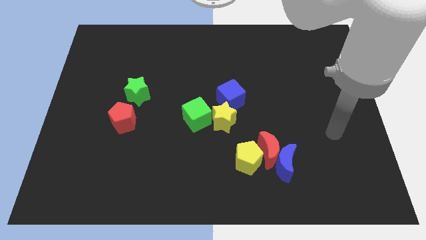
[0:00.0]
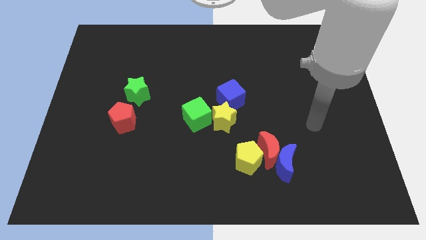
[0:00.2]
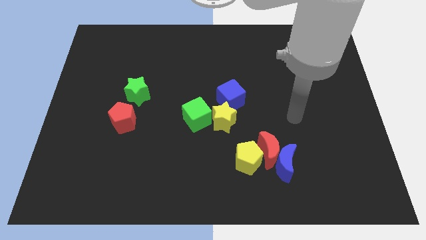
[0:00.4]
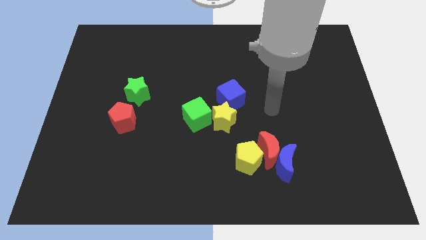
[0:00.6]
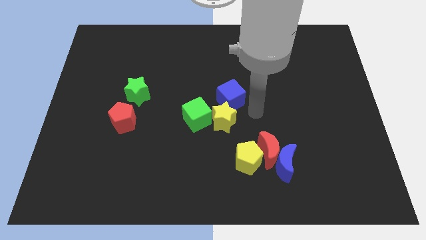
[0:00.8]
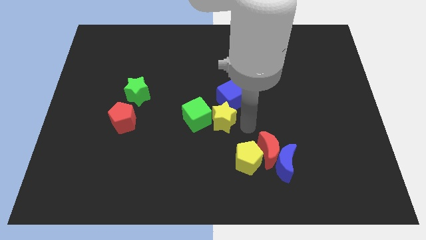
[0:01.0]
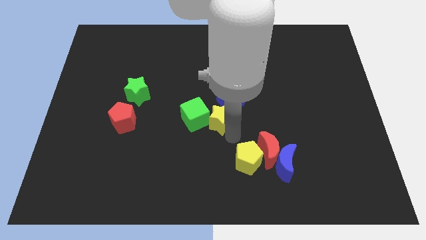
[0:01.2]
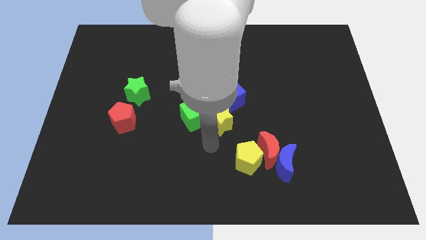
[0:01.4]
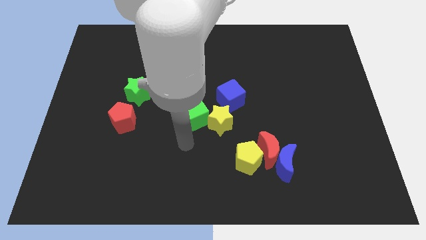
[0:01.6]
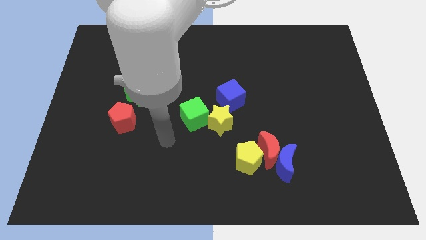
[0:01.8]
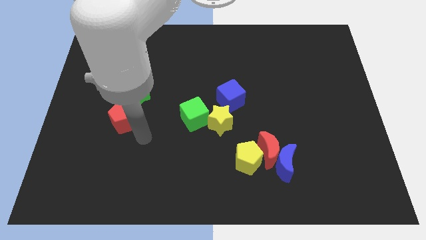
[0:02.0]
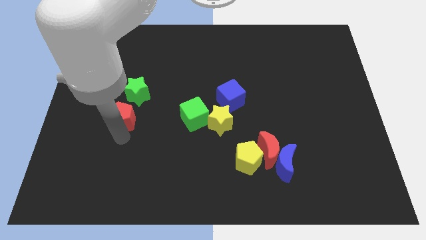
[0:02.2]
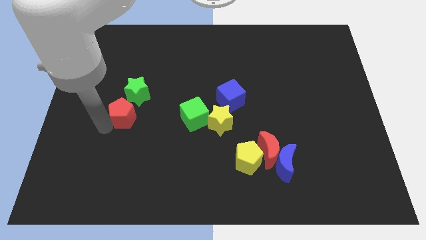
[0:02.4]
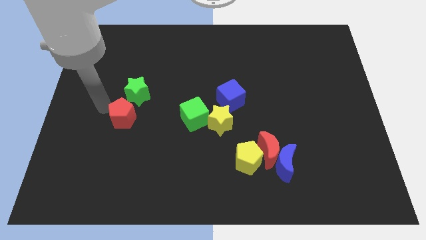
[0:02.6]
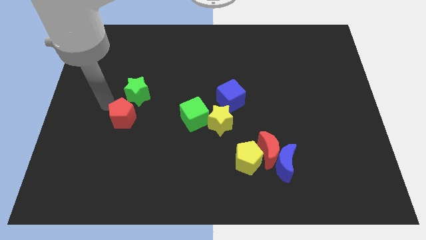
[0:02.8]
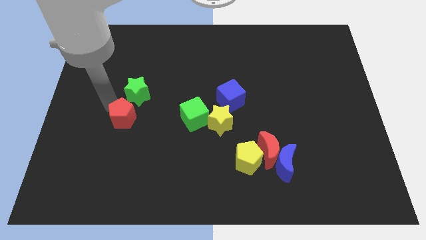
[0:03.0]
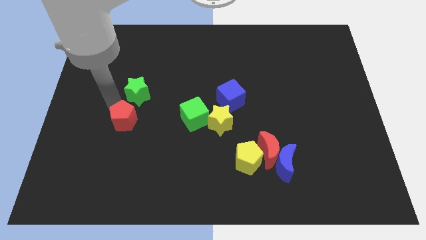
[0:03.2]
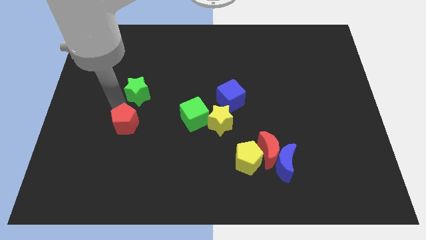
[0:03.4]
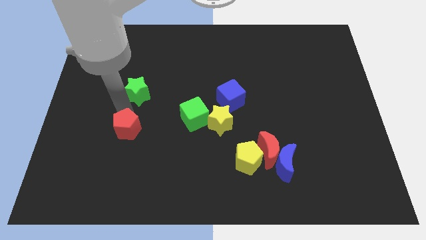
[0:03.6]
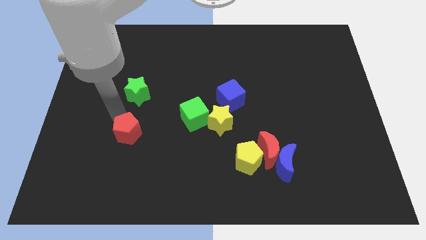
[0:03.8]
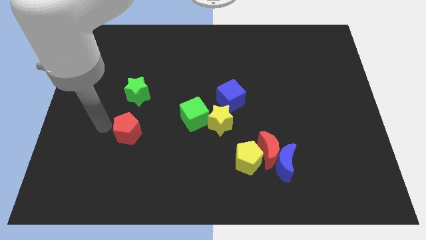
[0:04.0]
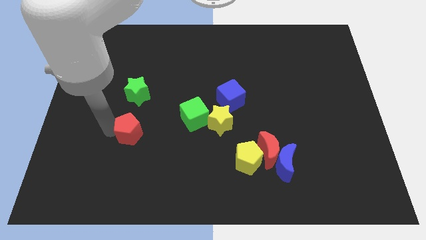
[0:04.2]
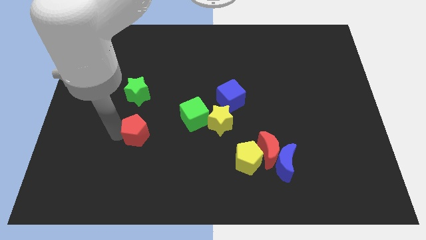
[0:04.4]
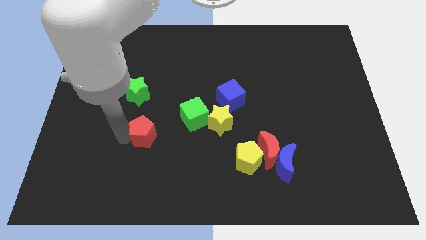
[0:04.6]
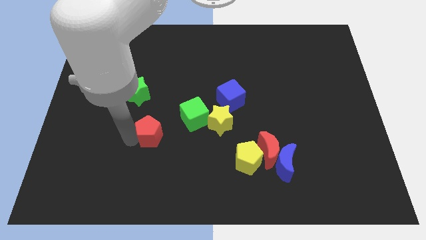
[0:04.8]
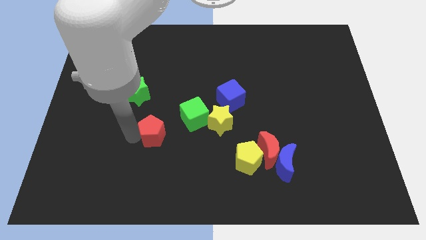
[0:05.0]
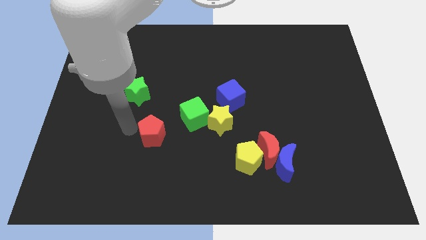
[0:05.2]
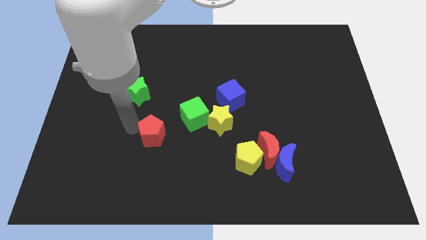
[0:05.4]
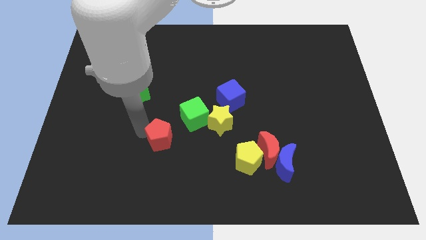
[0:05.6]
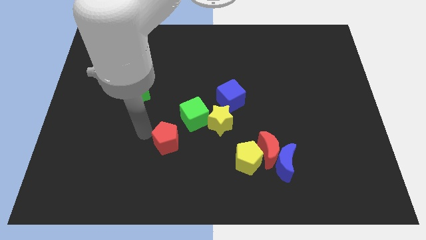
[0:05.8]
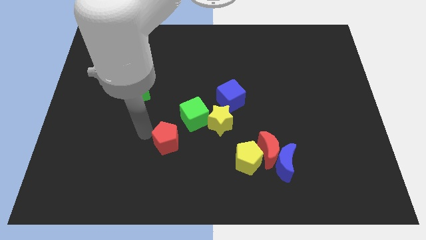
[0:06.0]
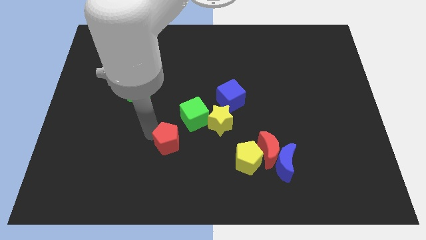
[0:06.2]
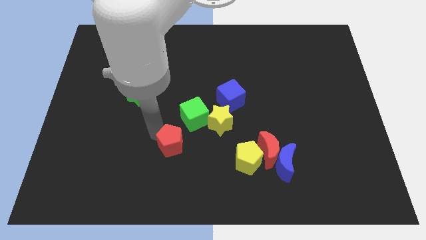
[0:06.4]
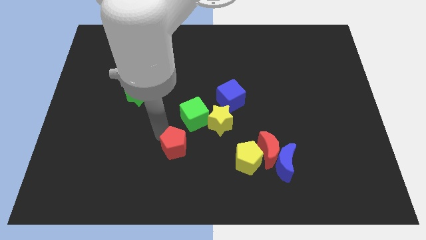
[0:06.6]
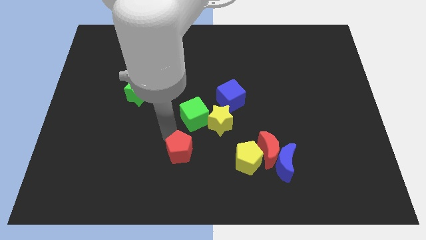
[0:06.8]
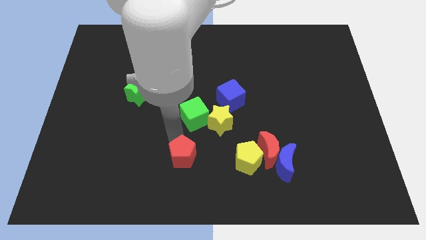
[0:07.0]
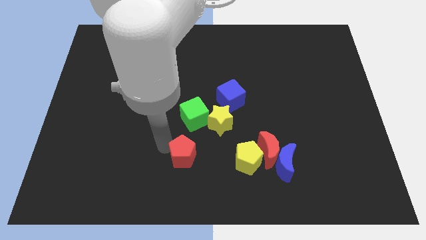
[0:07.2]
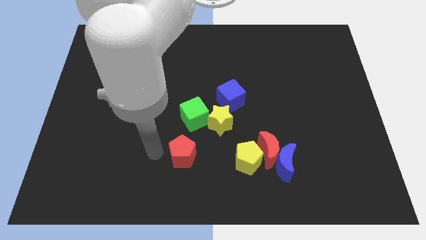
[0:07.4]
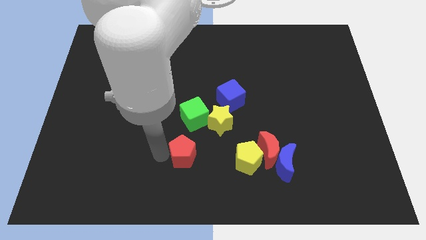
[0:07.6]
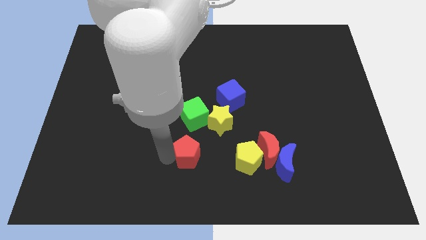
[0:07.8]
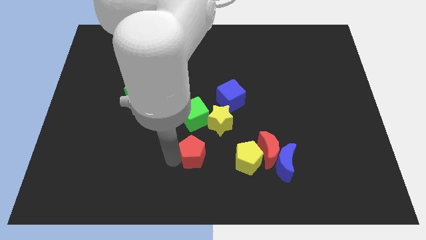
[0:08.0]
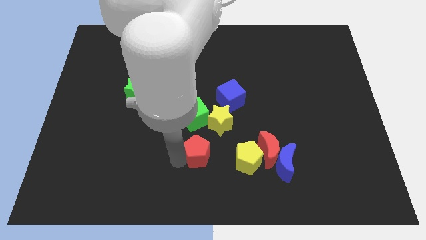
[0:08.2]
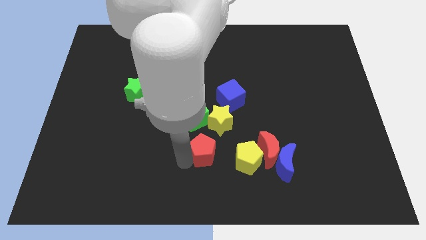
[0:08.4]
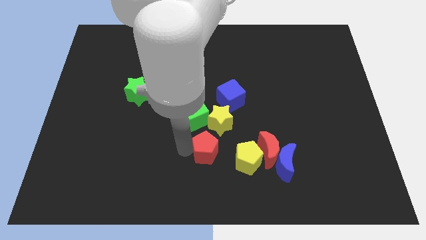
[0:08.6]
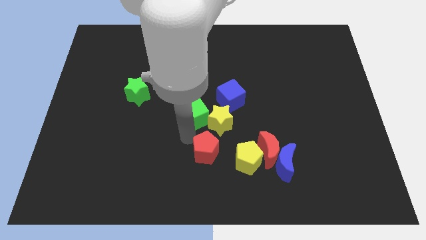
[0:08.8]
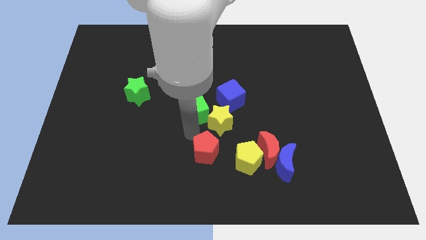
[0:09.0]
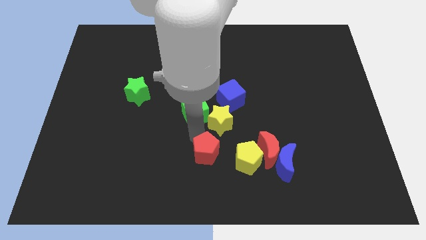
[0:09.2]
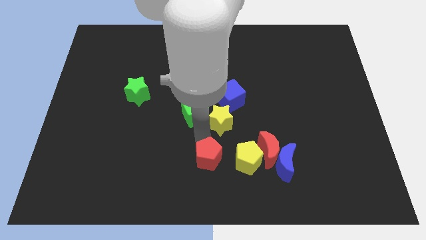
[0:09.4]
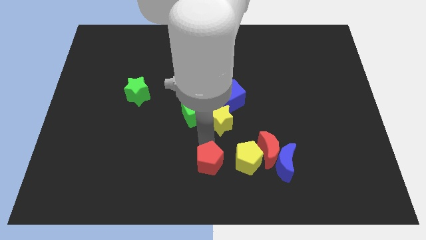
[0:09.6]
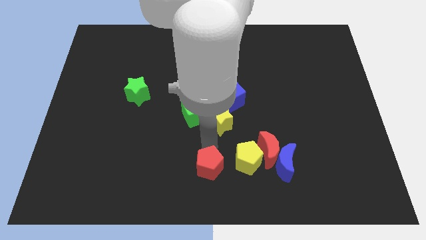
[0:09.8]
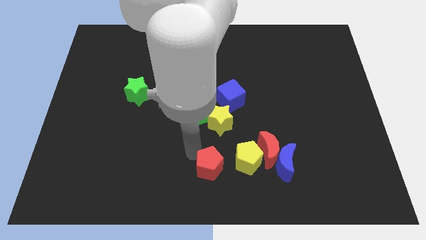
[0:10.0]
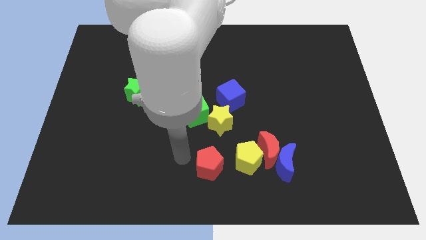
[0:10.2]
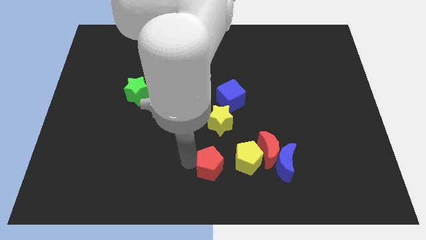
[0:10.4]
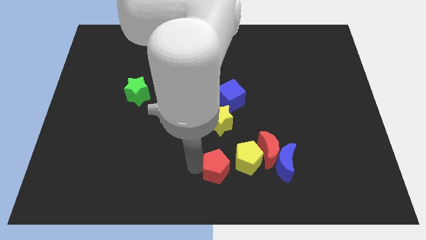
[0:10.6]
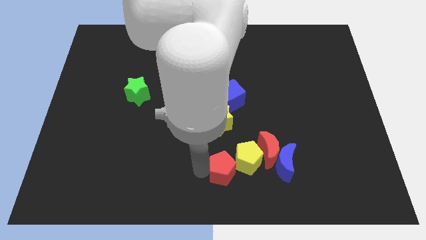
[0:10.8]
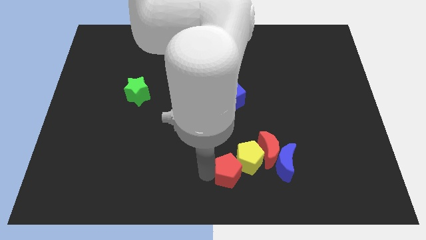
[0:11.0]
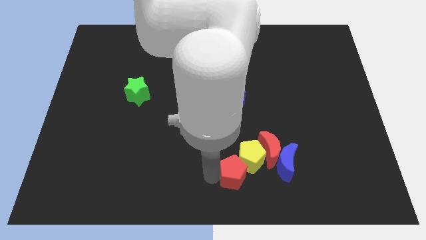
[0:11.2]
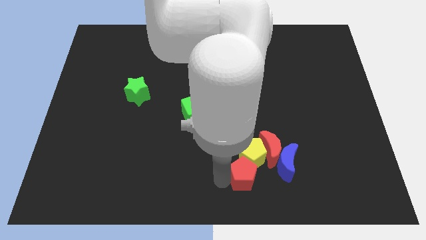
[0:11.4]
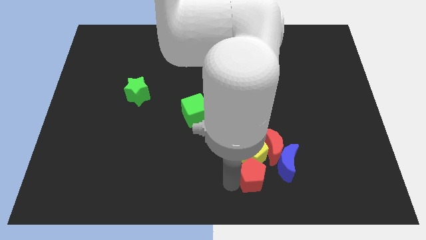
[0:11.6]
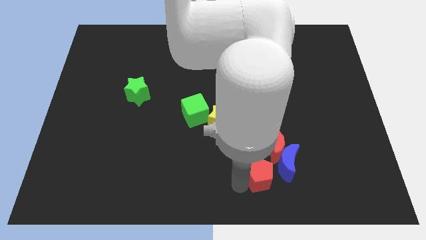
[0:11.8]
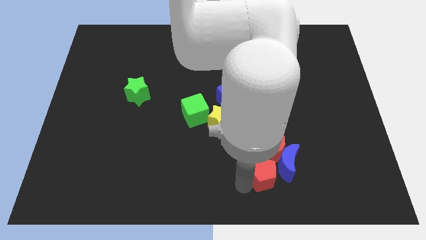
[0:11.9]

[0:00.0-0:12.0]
put the red pentagon close to the blue moon

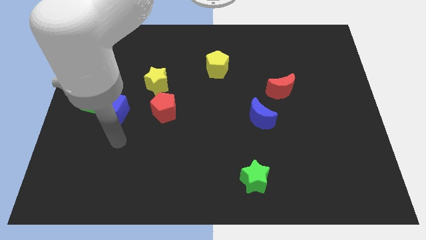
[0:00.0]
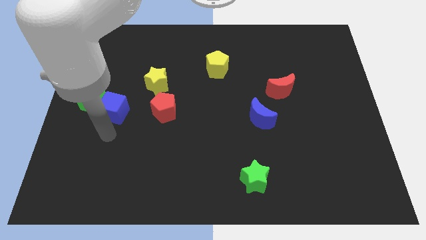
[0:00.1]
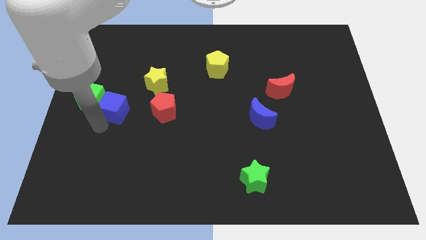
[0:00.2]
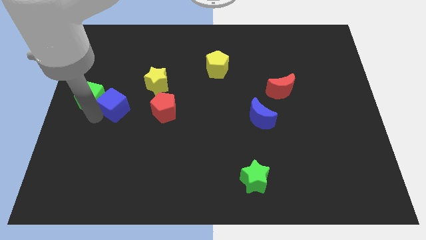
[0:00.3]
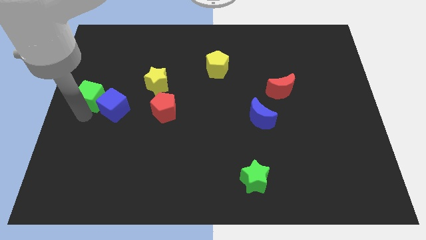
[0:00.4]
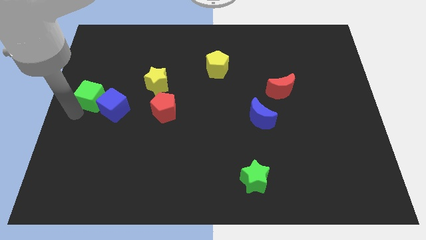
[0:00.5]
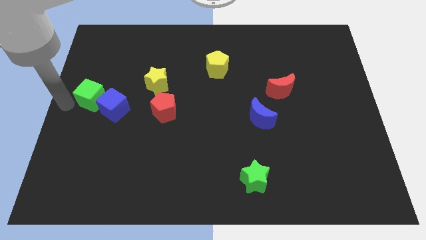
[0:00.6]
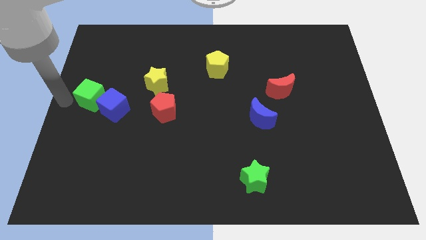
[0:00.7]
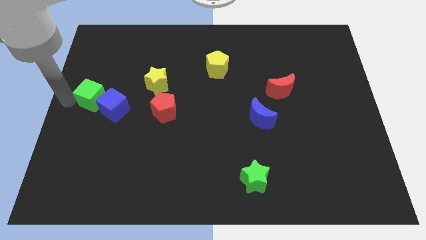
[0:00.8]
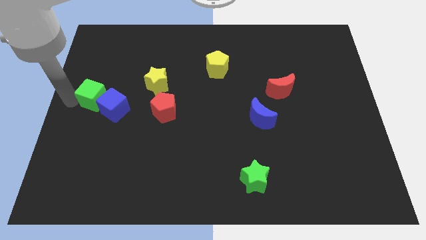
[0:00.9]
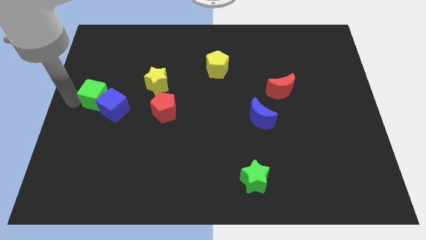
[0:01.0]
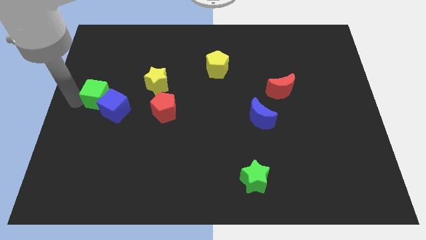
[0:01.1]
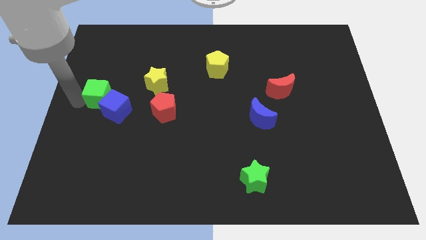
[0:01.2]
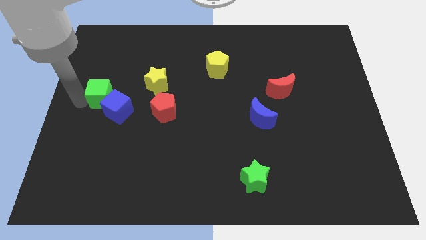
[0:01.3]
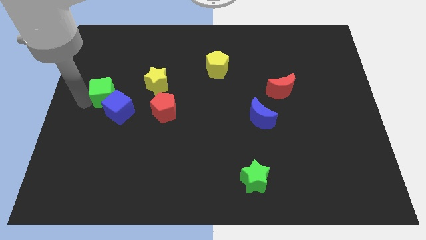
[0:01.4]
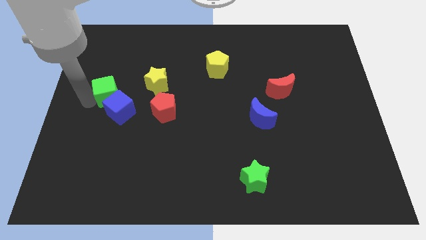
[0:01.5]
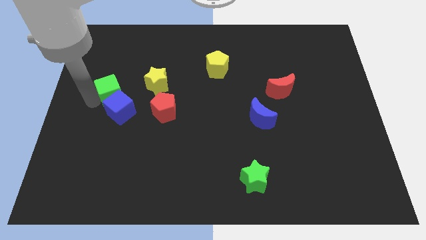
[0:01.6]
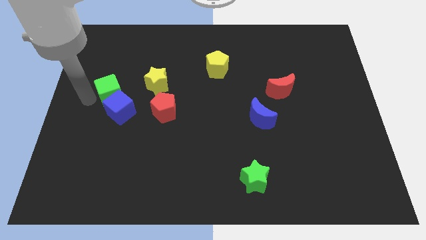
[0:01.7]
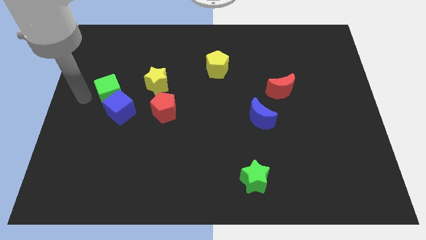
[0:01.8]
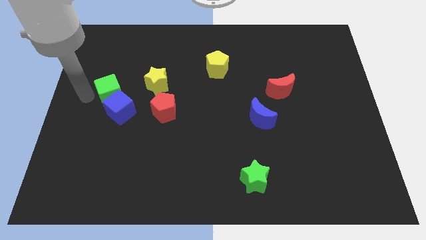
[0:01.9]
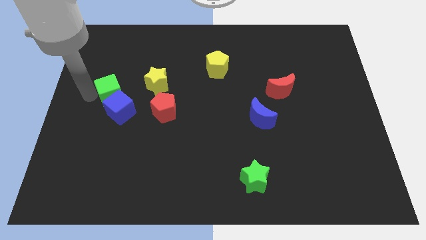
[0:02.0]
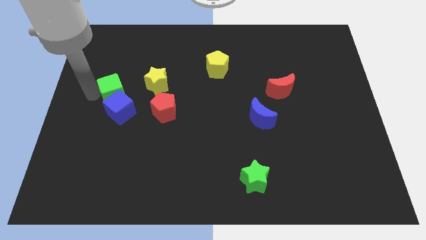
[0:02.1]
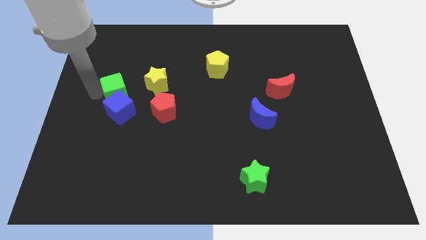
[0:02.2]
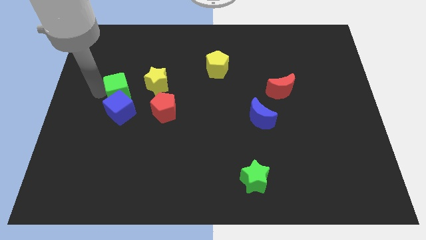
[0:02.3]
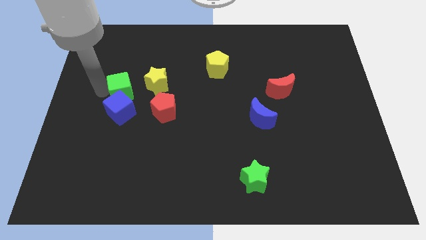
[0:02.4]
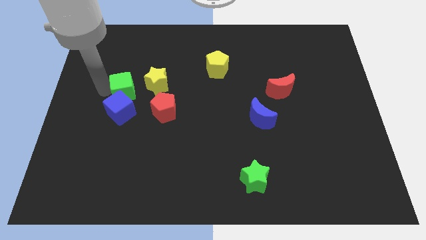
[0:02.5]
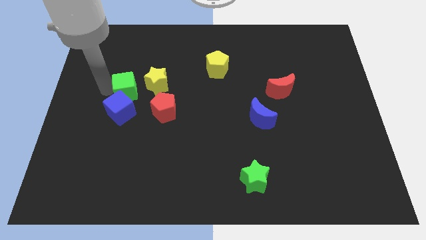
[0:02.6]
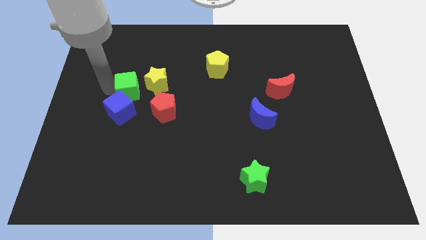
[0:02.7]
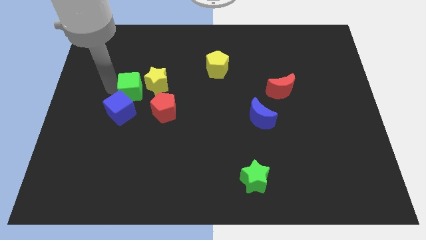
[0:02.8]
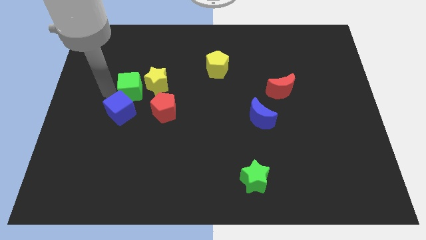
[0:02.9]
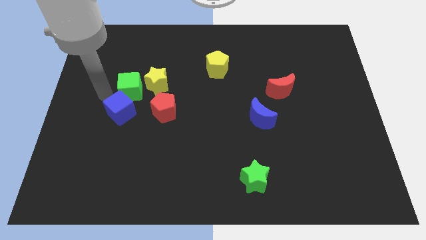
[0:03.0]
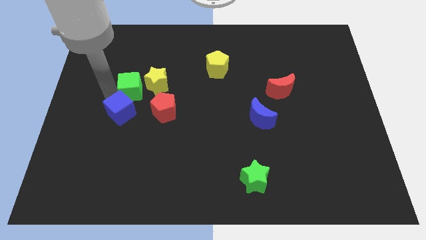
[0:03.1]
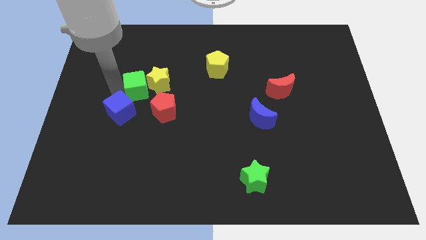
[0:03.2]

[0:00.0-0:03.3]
move the green cube close to the yellow star
